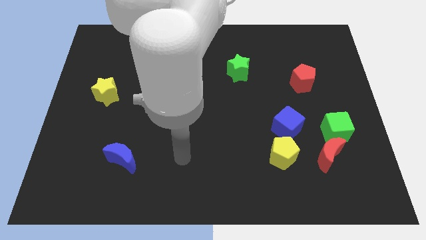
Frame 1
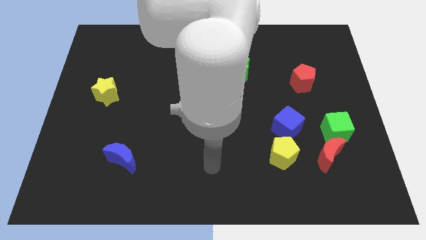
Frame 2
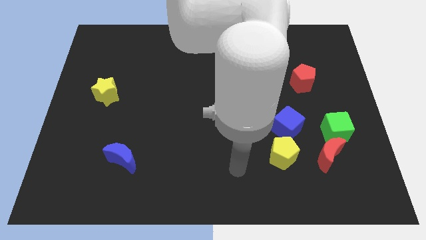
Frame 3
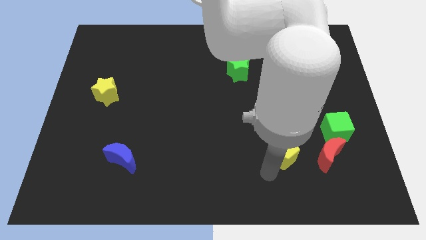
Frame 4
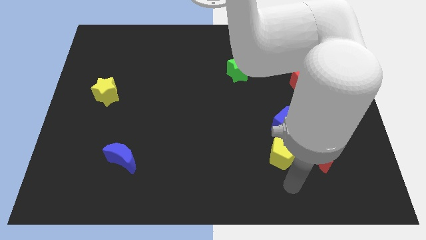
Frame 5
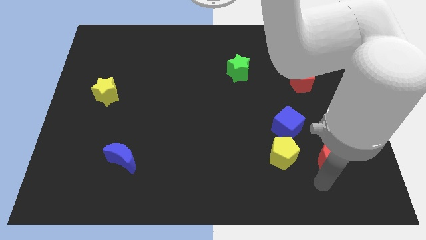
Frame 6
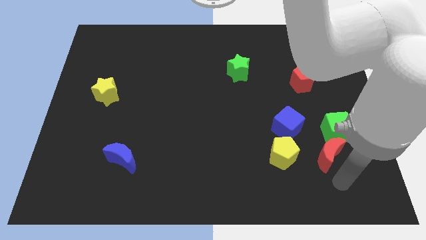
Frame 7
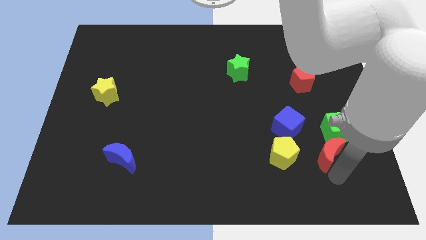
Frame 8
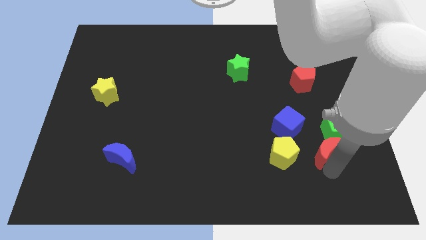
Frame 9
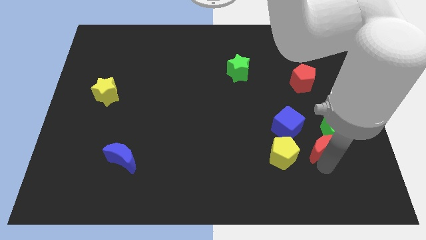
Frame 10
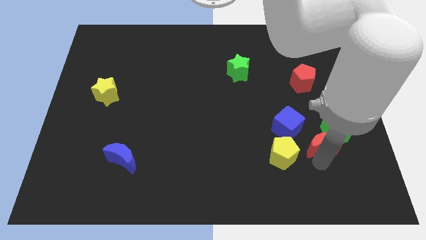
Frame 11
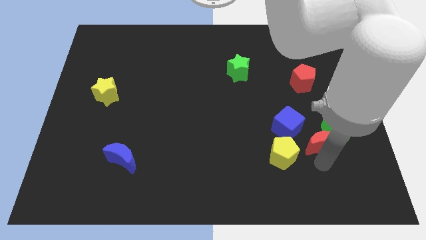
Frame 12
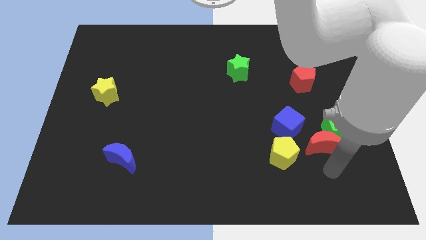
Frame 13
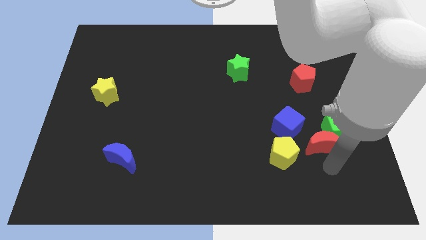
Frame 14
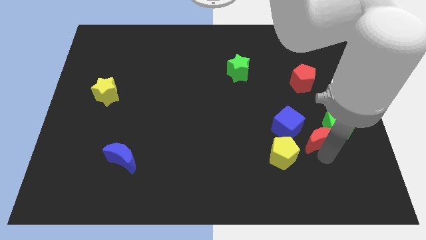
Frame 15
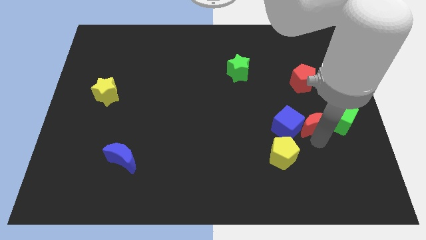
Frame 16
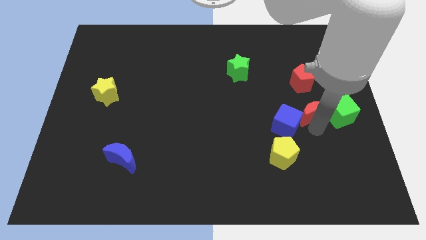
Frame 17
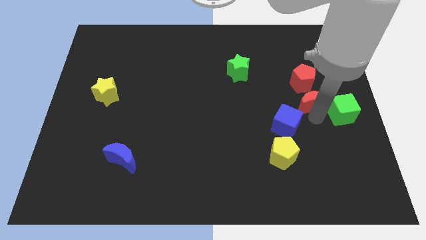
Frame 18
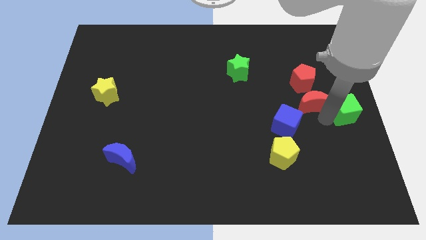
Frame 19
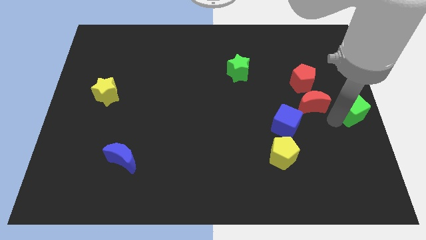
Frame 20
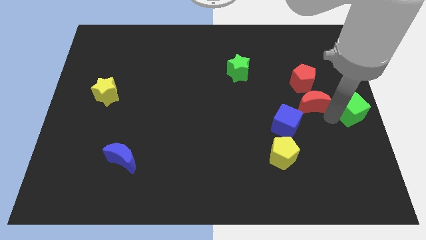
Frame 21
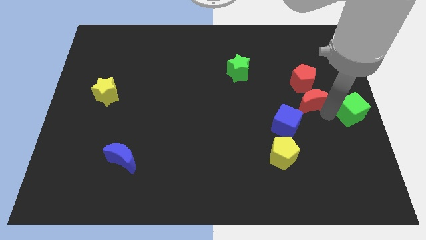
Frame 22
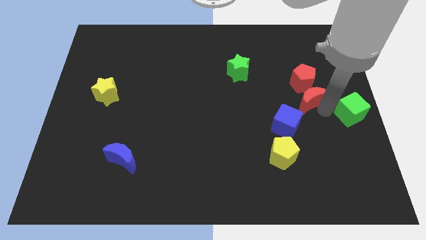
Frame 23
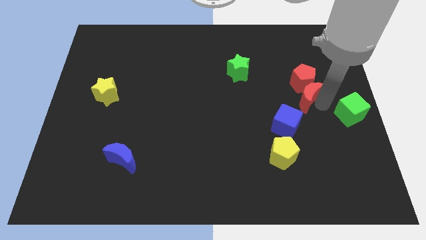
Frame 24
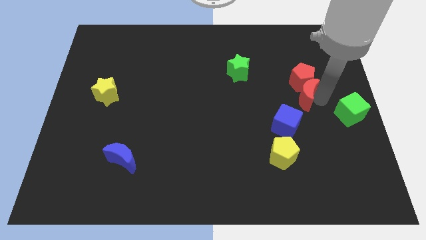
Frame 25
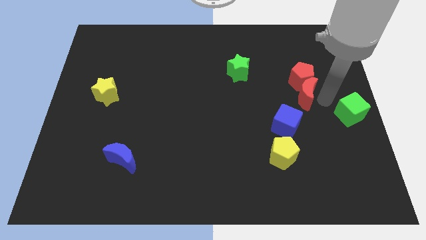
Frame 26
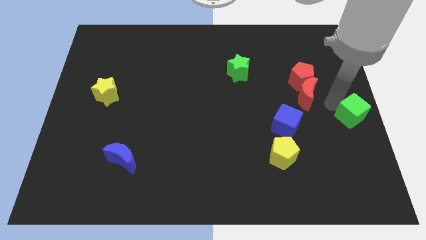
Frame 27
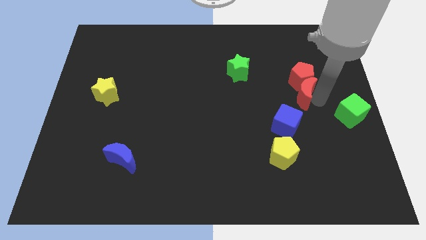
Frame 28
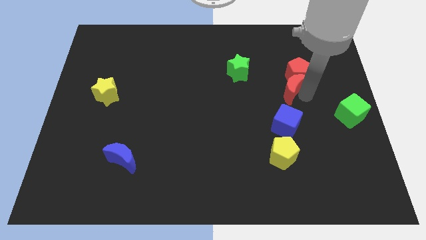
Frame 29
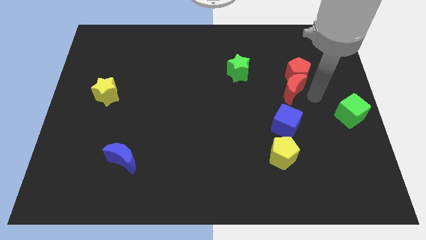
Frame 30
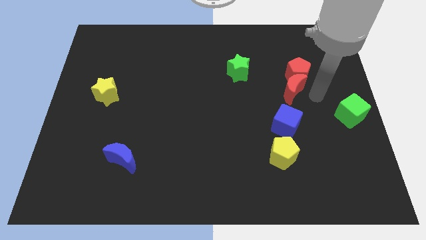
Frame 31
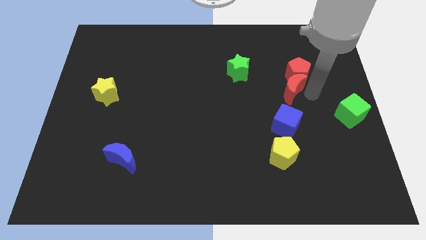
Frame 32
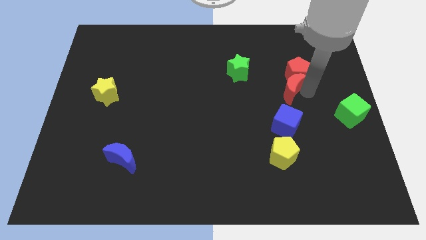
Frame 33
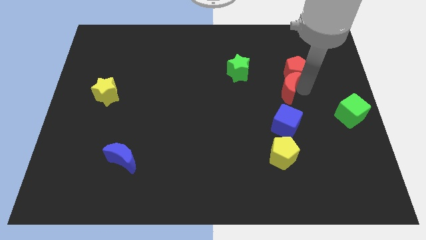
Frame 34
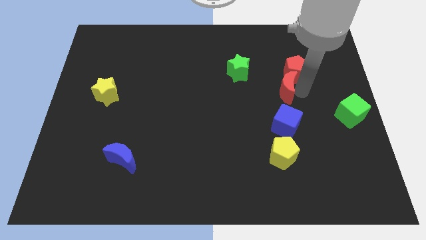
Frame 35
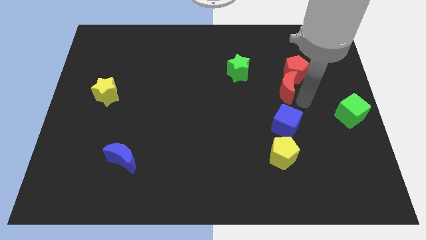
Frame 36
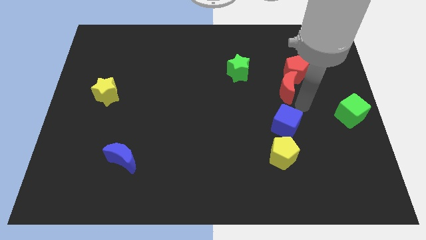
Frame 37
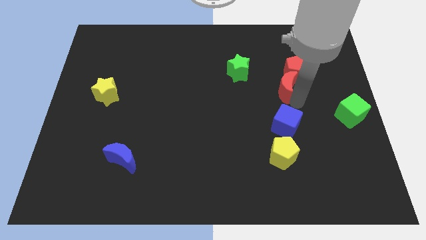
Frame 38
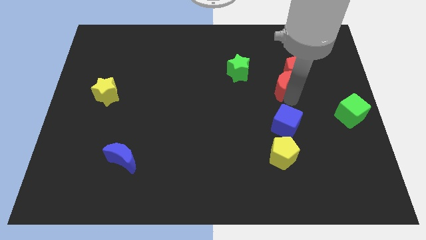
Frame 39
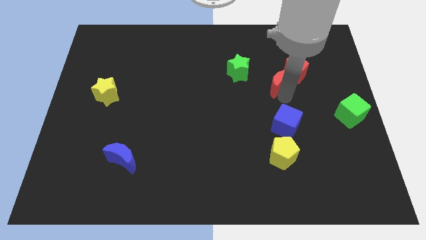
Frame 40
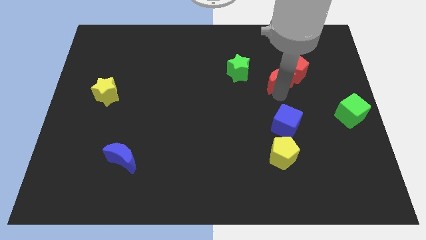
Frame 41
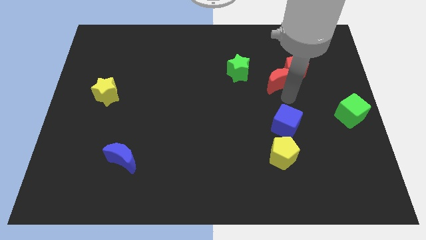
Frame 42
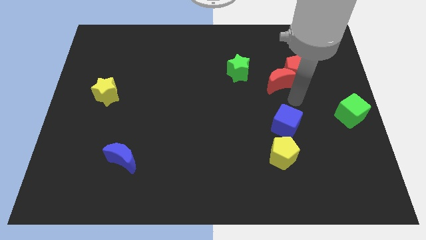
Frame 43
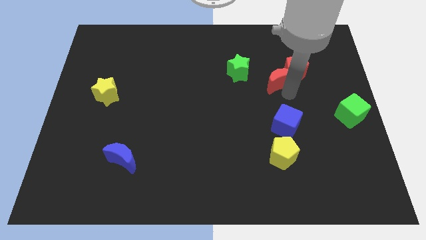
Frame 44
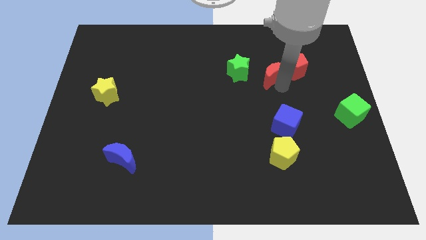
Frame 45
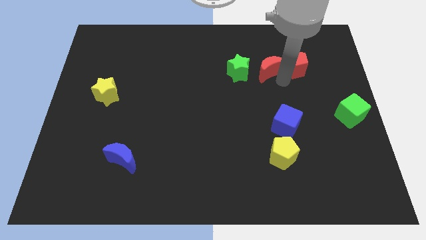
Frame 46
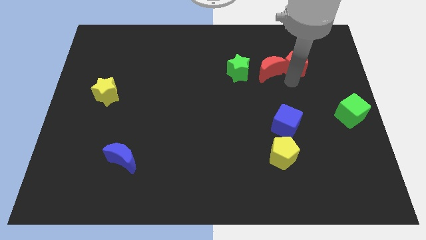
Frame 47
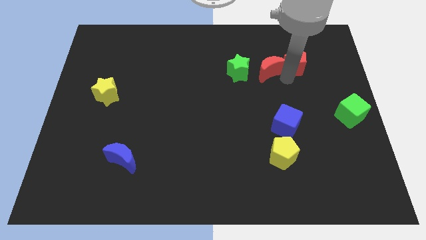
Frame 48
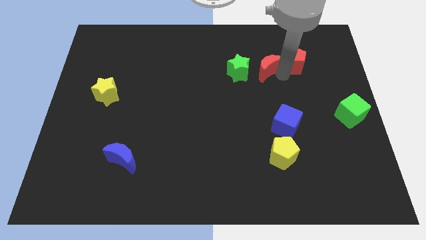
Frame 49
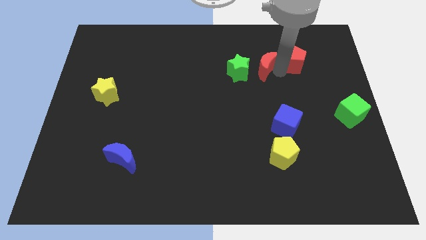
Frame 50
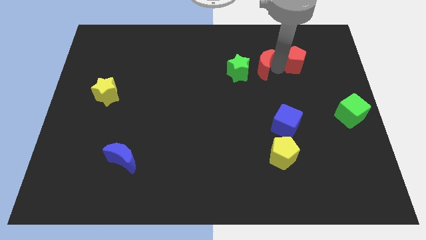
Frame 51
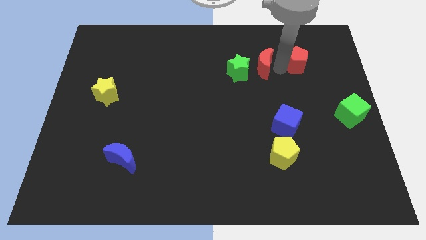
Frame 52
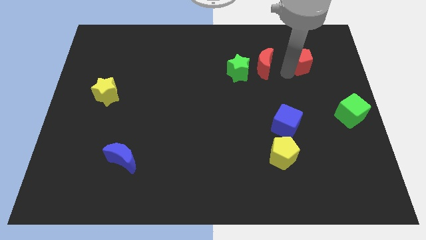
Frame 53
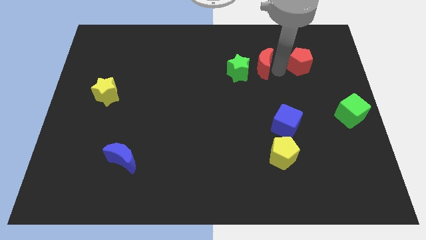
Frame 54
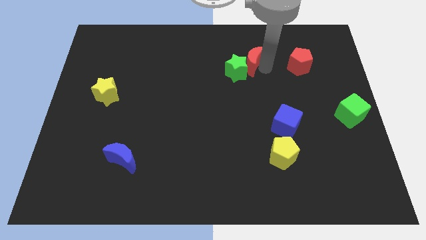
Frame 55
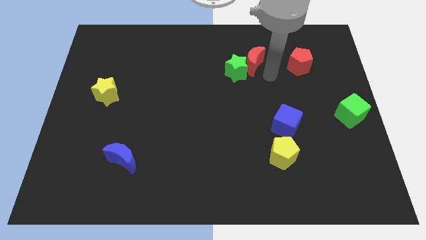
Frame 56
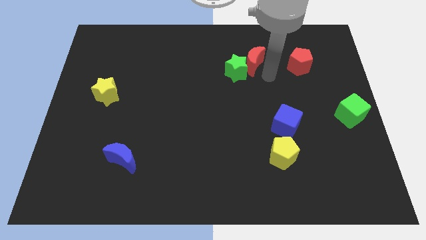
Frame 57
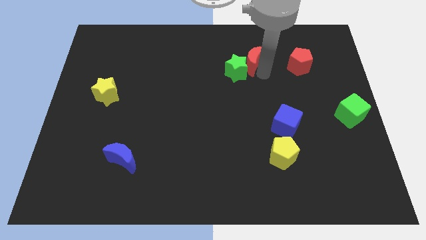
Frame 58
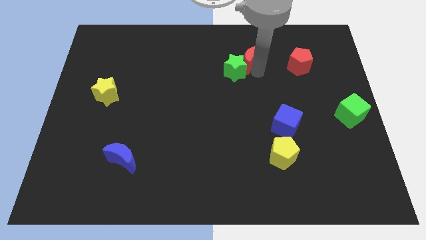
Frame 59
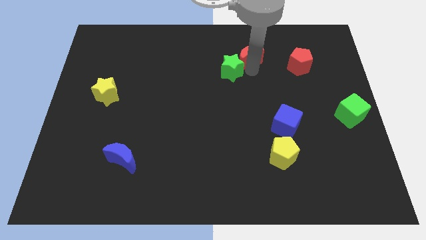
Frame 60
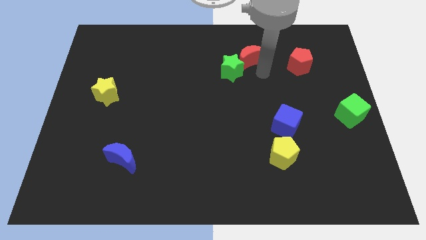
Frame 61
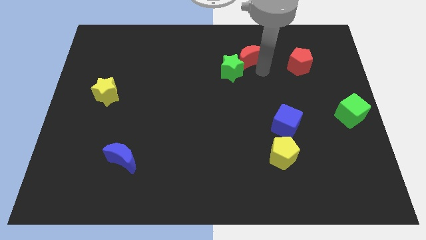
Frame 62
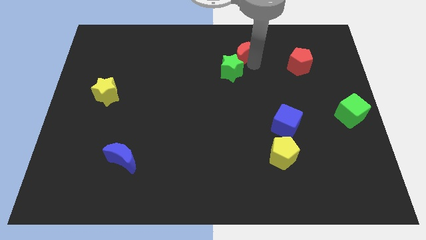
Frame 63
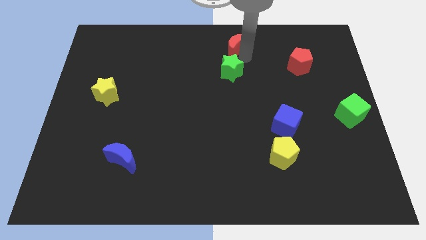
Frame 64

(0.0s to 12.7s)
slide the red moon to the towards your base

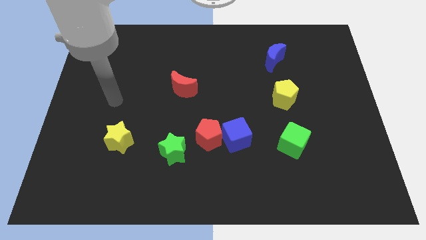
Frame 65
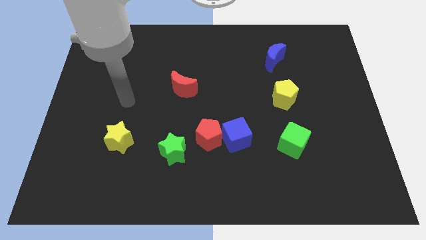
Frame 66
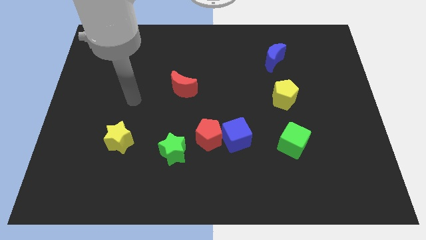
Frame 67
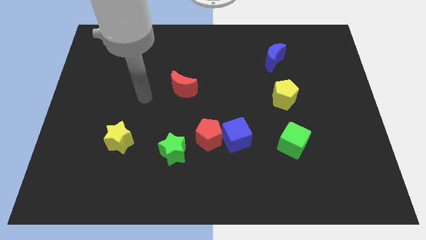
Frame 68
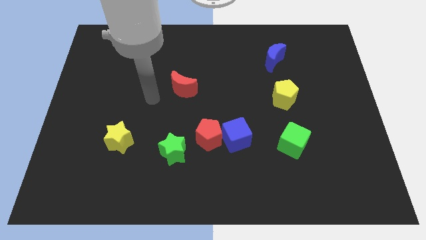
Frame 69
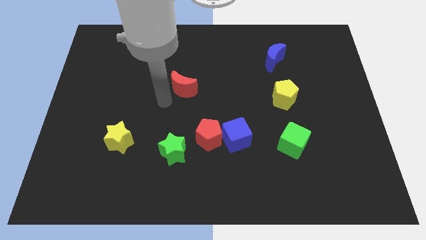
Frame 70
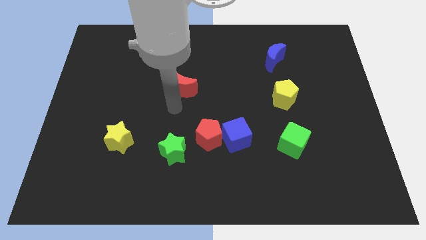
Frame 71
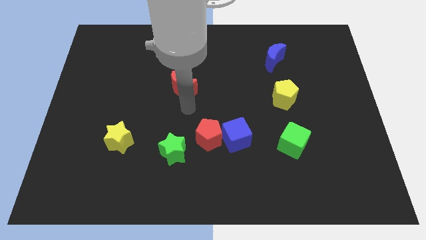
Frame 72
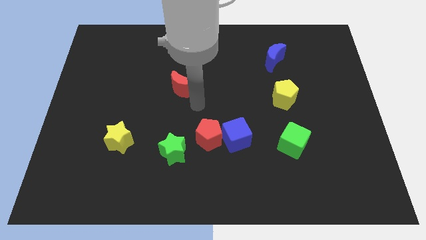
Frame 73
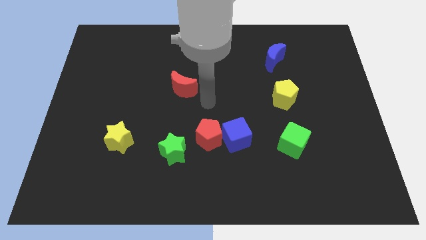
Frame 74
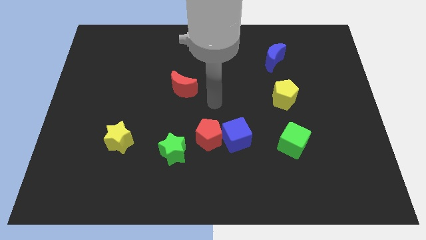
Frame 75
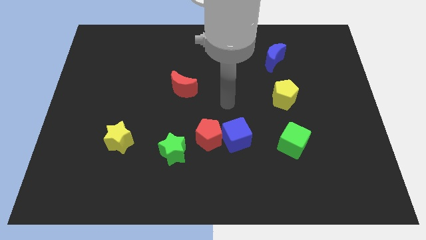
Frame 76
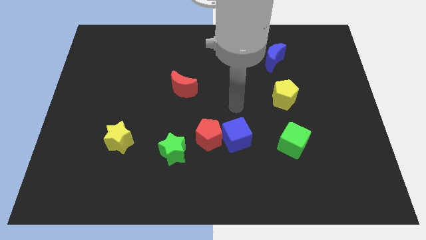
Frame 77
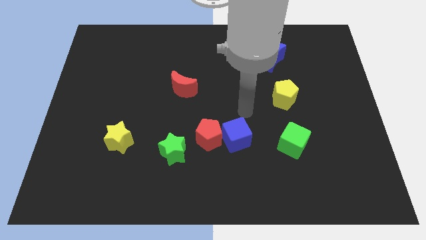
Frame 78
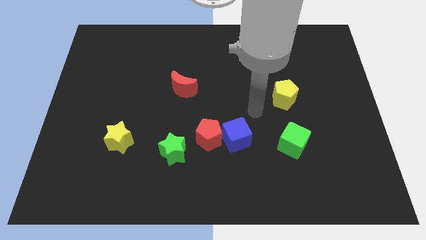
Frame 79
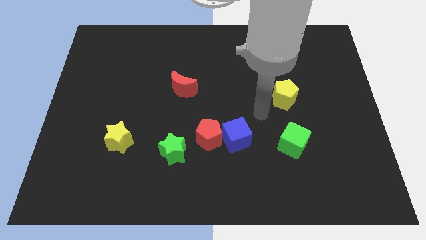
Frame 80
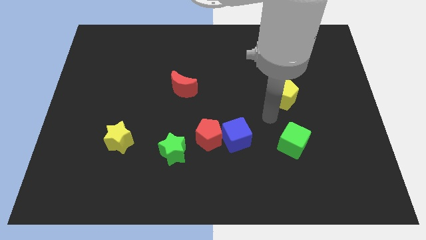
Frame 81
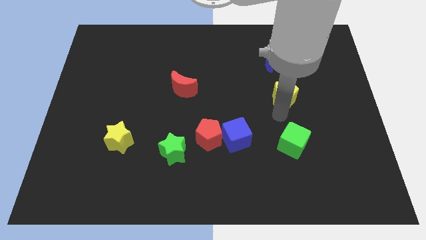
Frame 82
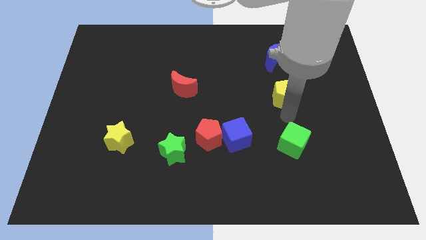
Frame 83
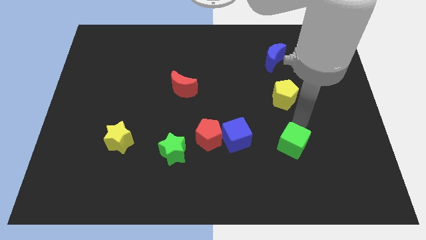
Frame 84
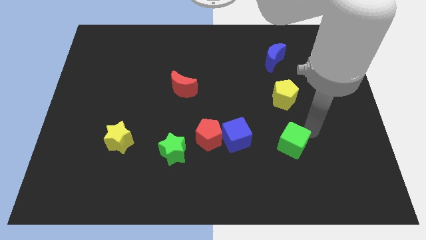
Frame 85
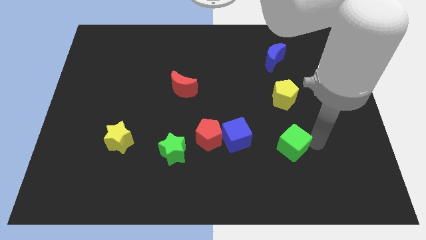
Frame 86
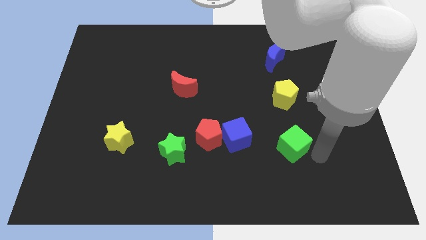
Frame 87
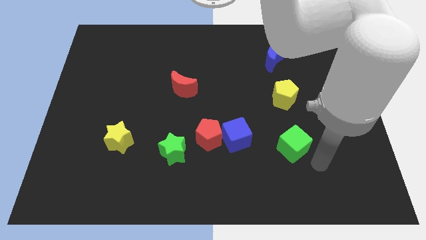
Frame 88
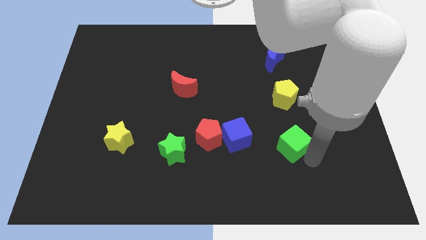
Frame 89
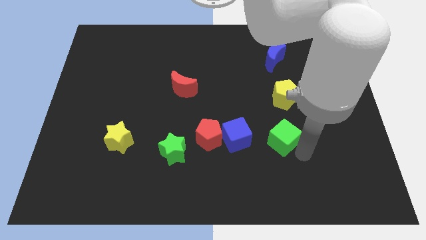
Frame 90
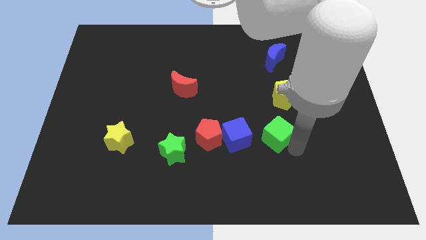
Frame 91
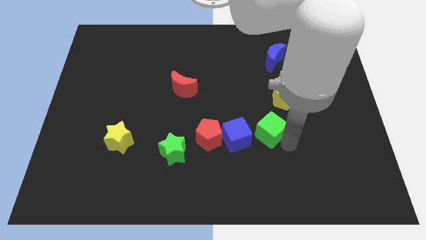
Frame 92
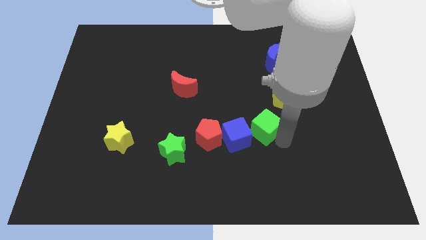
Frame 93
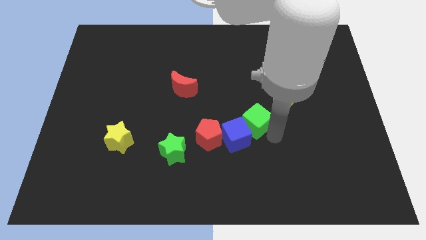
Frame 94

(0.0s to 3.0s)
push the green cube to the center of the board
